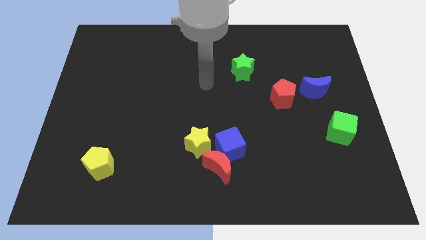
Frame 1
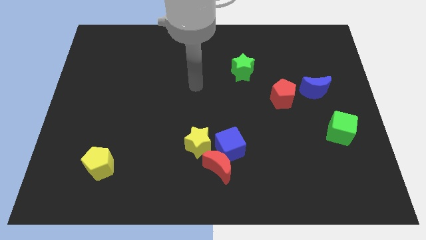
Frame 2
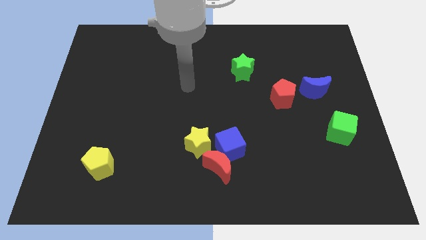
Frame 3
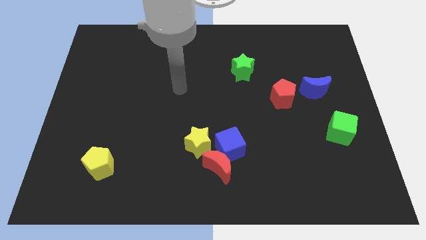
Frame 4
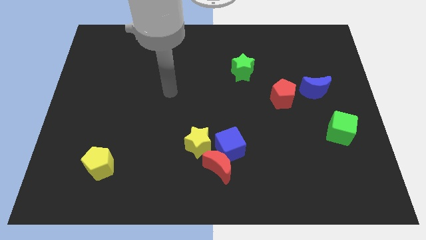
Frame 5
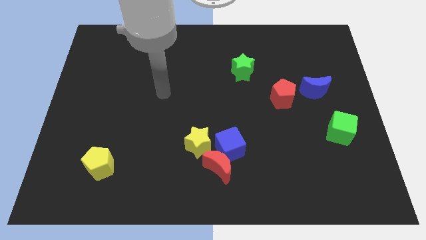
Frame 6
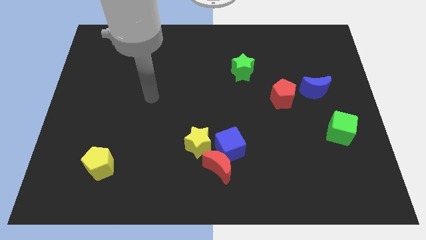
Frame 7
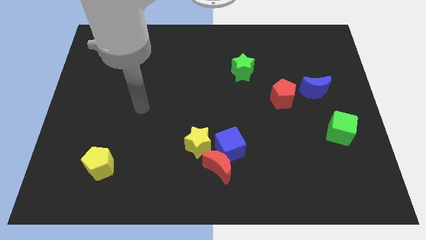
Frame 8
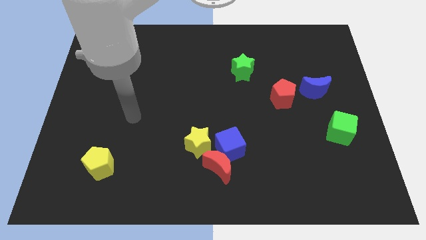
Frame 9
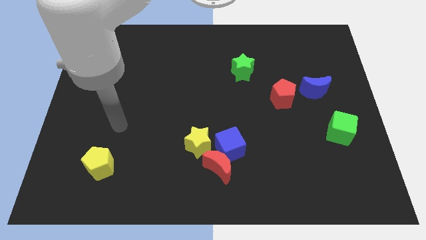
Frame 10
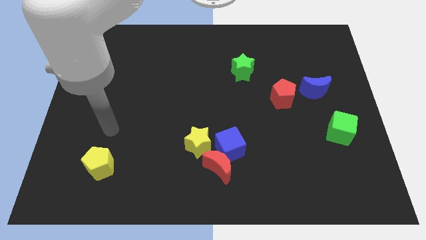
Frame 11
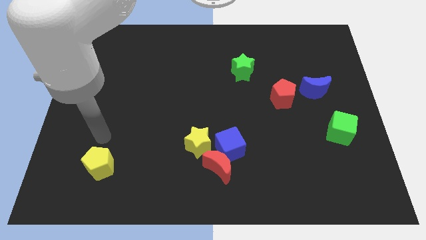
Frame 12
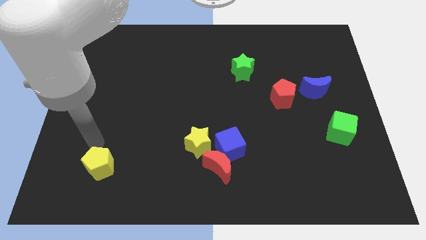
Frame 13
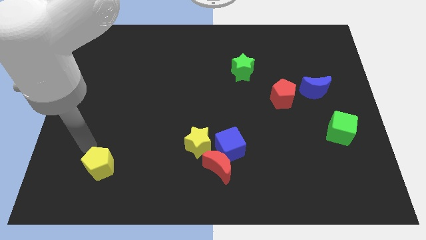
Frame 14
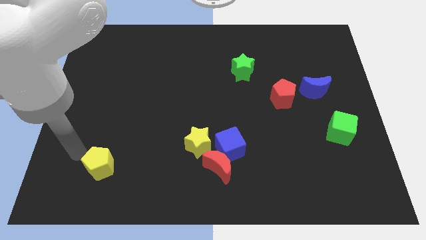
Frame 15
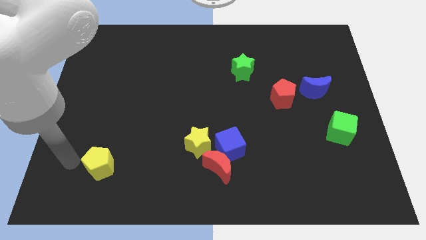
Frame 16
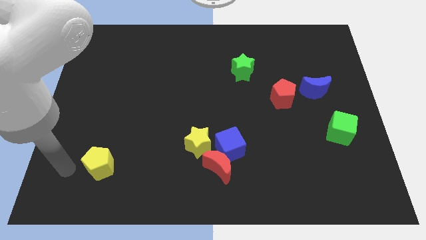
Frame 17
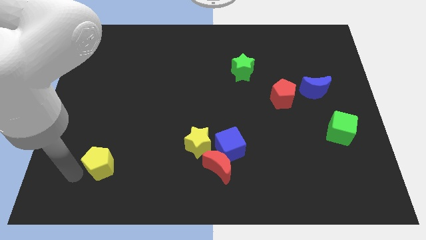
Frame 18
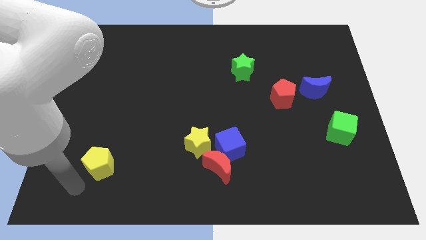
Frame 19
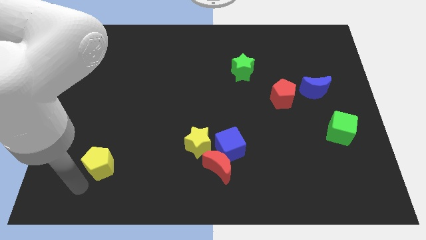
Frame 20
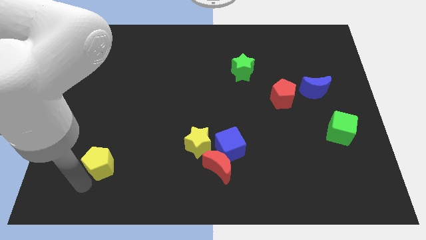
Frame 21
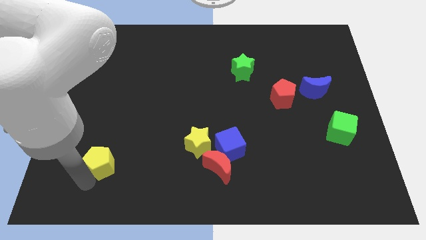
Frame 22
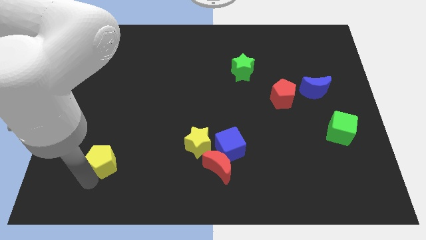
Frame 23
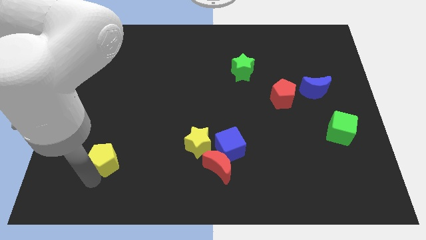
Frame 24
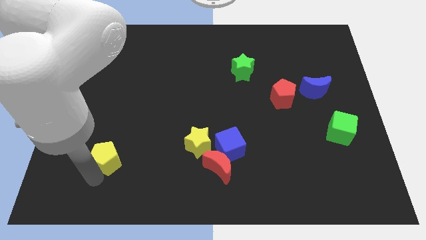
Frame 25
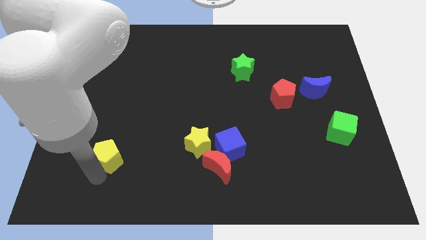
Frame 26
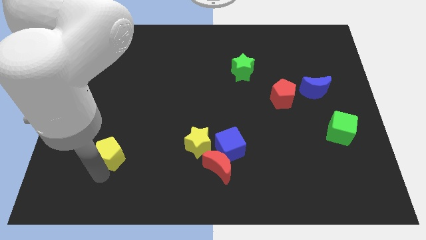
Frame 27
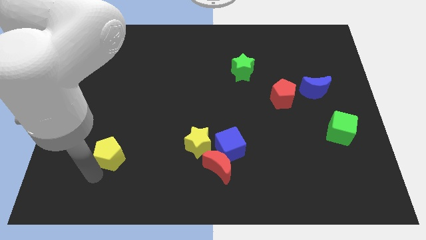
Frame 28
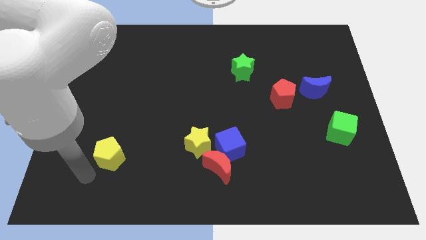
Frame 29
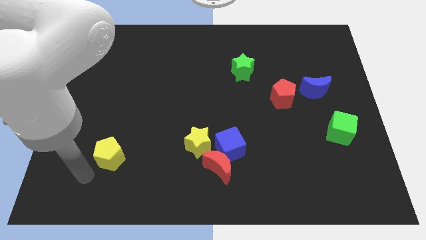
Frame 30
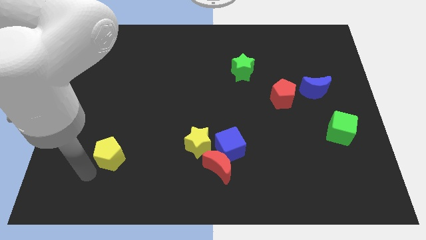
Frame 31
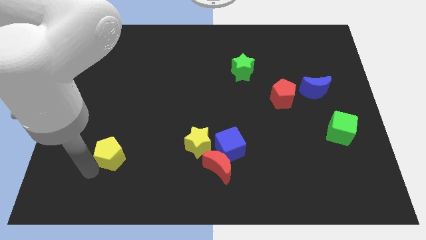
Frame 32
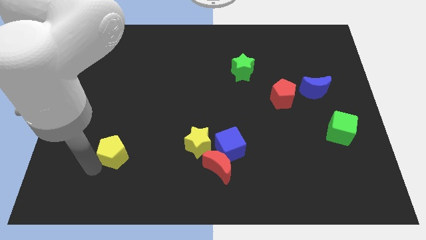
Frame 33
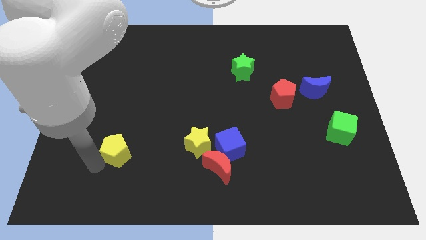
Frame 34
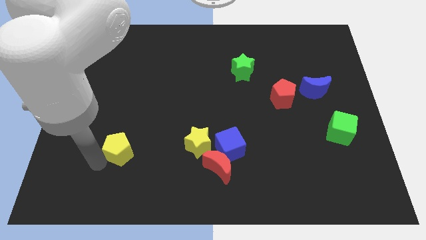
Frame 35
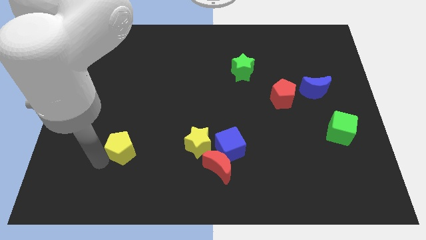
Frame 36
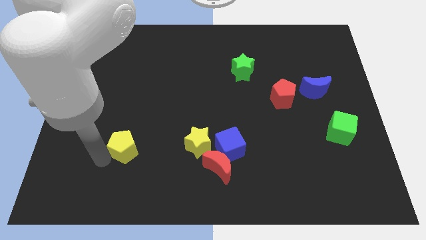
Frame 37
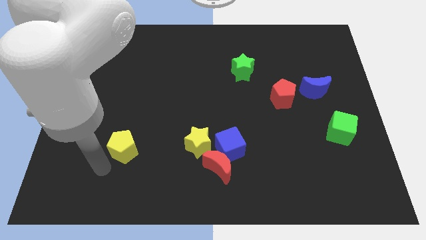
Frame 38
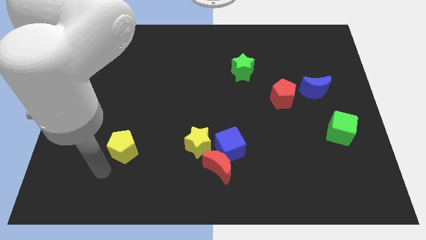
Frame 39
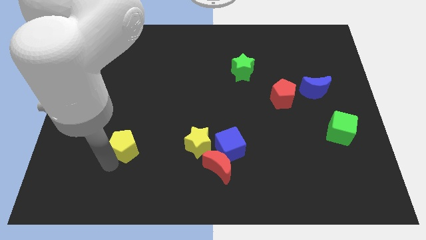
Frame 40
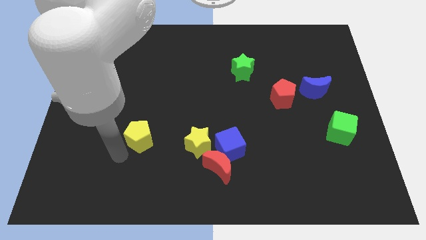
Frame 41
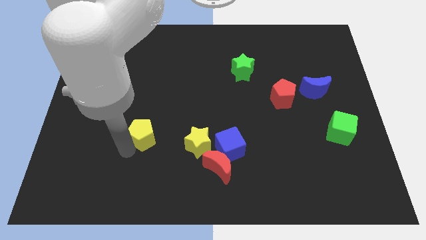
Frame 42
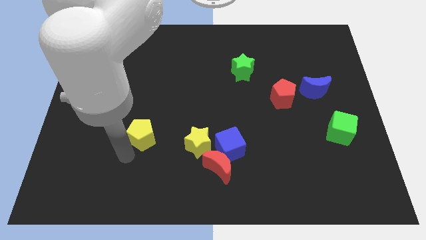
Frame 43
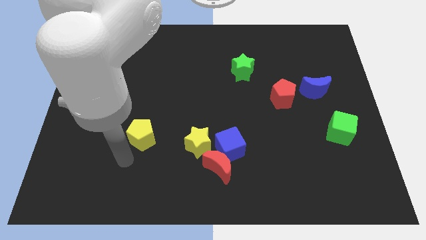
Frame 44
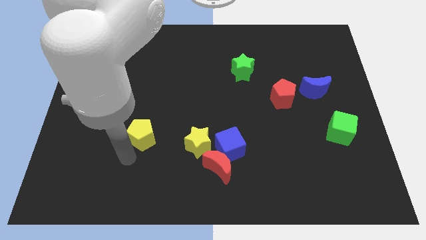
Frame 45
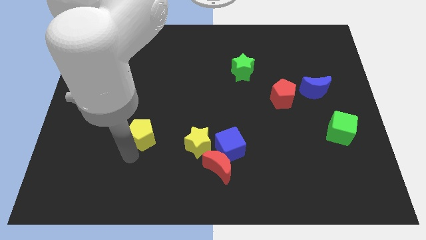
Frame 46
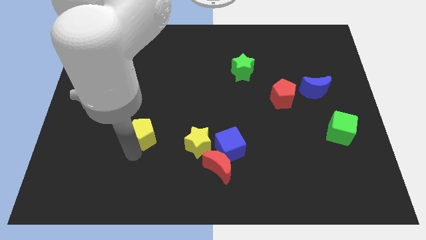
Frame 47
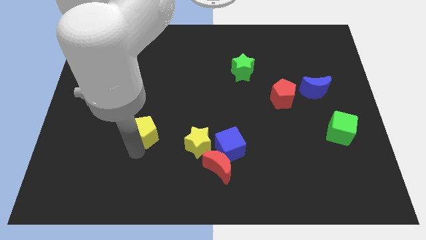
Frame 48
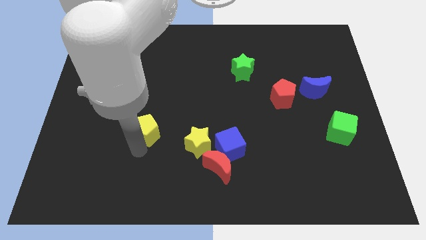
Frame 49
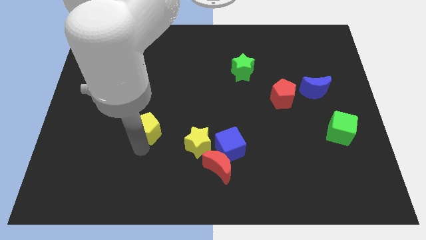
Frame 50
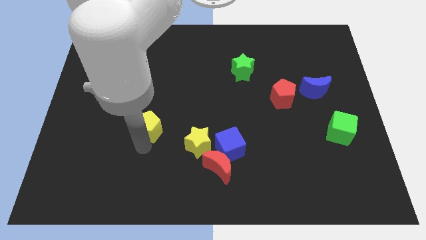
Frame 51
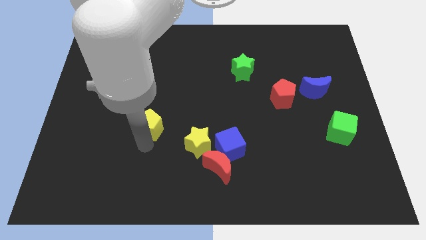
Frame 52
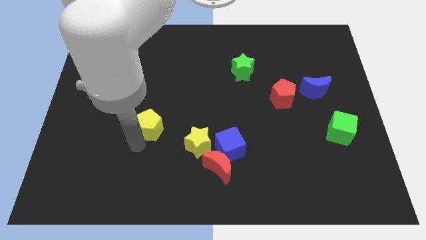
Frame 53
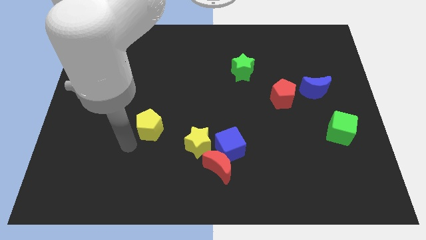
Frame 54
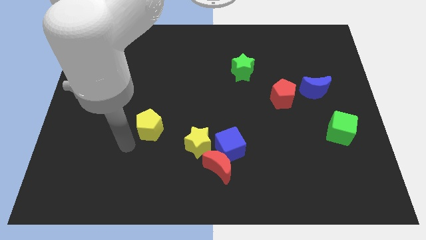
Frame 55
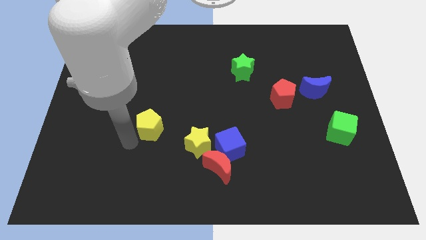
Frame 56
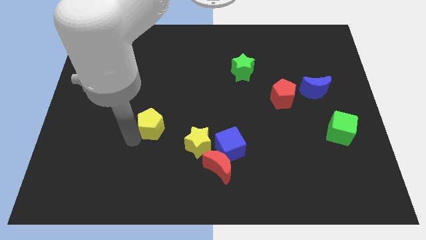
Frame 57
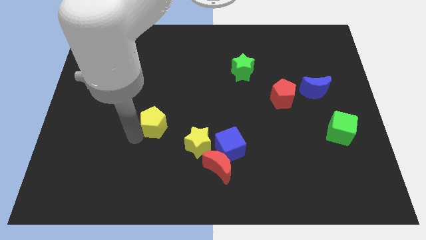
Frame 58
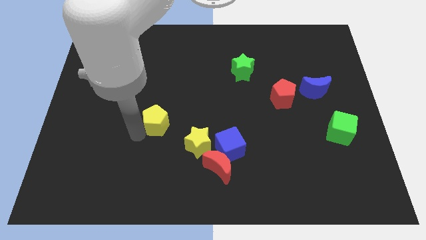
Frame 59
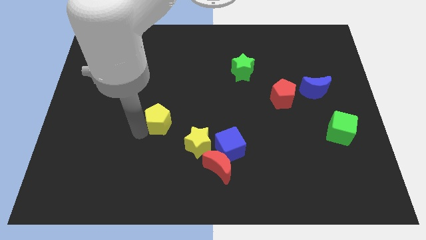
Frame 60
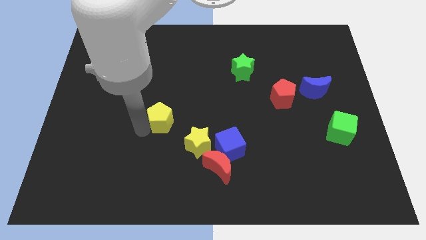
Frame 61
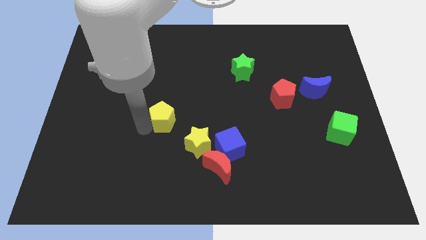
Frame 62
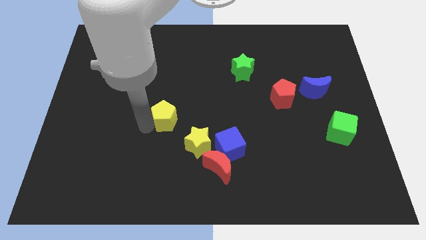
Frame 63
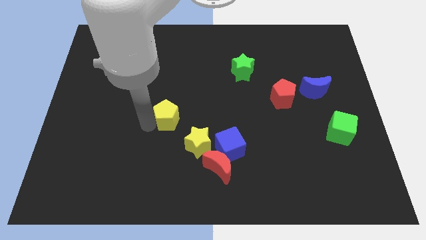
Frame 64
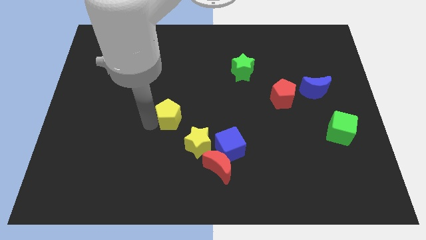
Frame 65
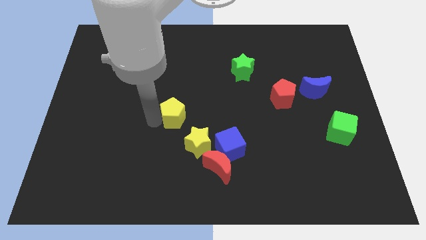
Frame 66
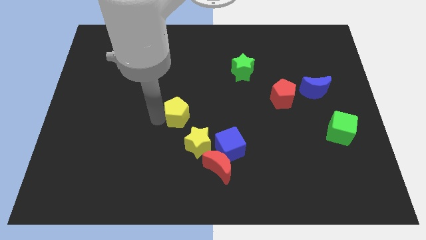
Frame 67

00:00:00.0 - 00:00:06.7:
slide the yellow pentagon up and to the right

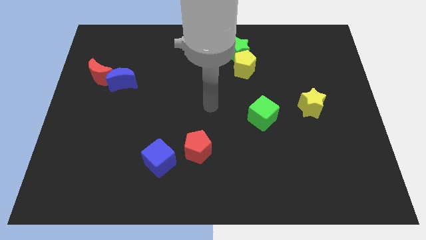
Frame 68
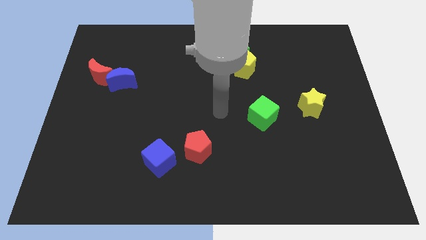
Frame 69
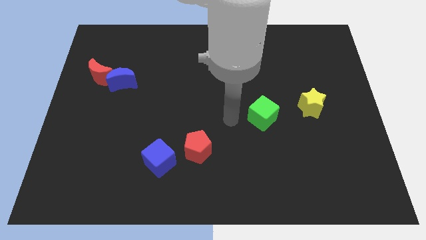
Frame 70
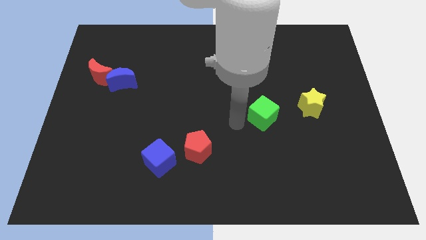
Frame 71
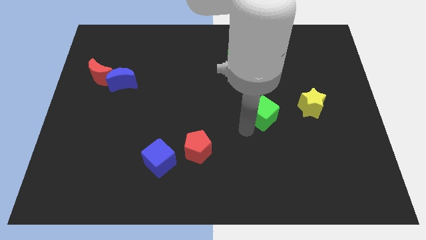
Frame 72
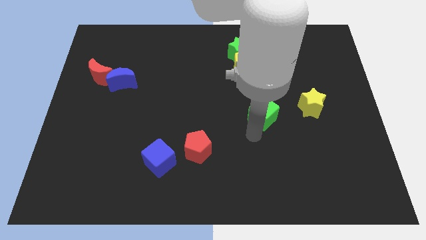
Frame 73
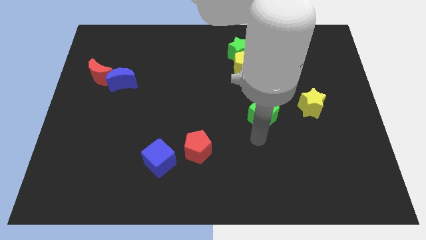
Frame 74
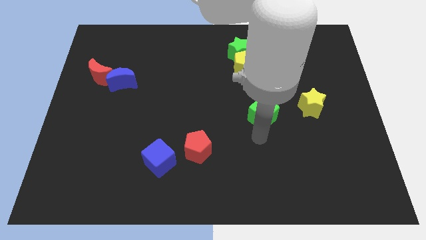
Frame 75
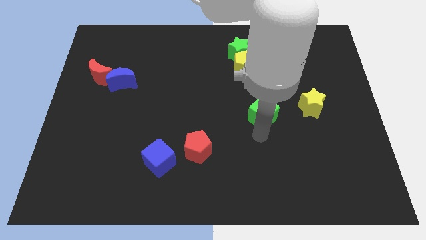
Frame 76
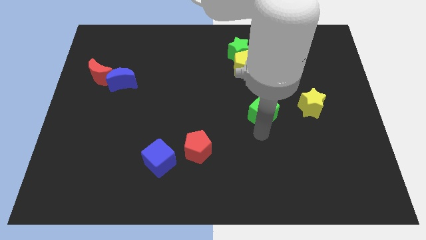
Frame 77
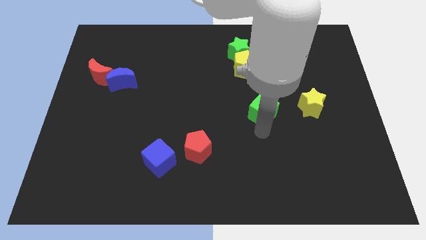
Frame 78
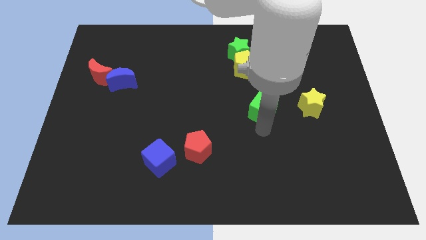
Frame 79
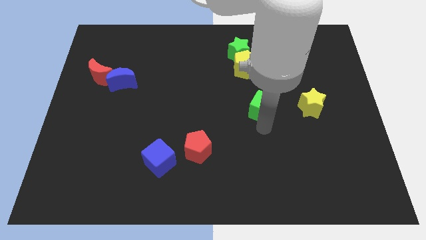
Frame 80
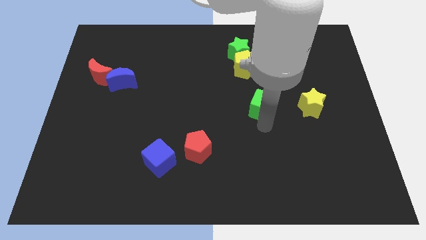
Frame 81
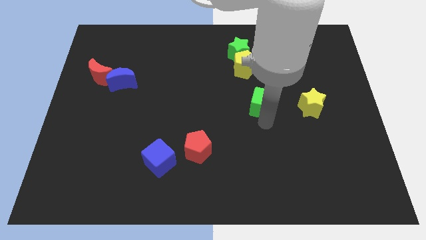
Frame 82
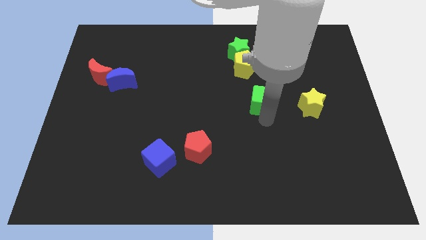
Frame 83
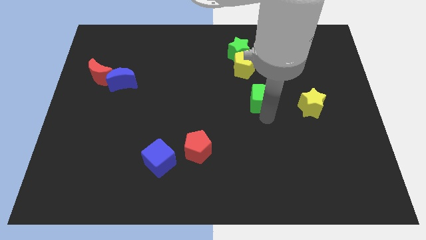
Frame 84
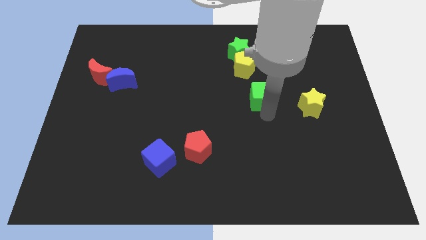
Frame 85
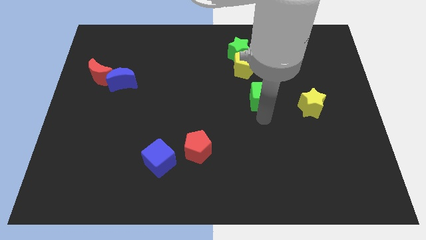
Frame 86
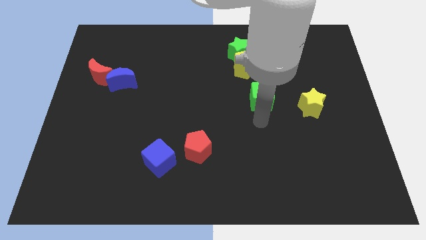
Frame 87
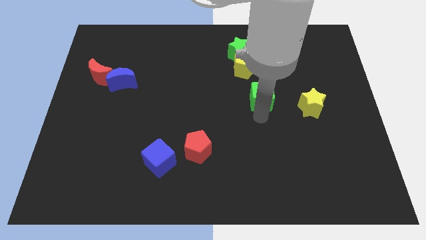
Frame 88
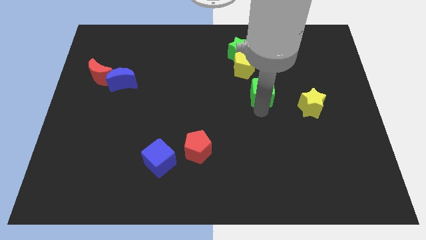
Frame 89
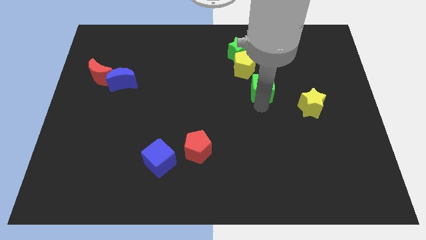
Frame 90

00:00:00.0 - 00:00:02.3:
slightly push the green cube up
